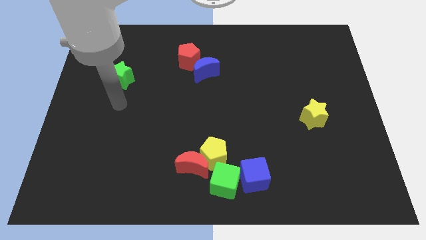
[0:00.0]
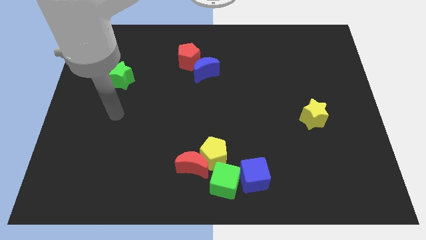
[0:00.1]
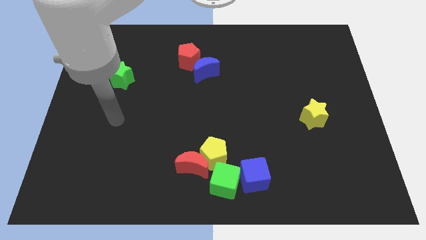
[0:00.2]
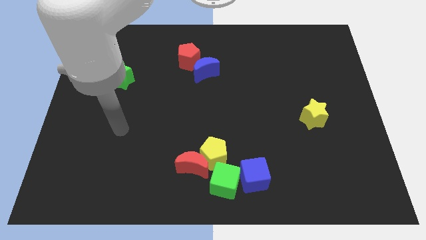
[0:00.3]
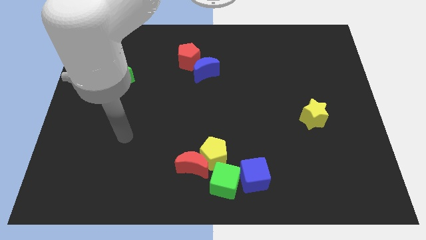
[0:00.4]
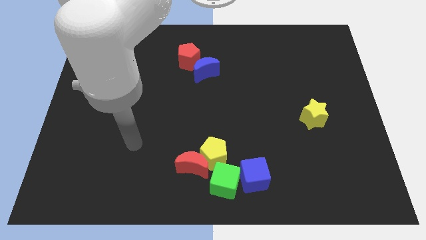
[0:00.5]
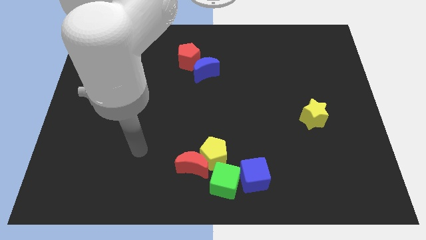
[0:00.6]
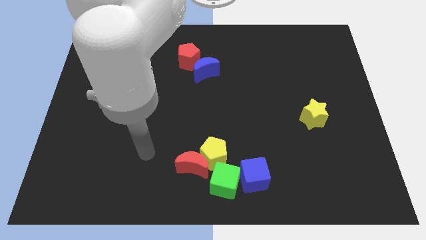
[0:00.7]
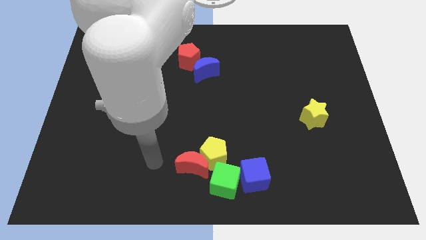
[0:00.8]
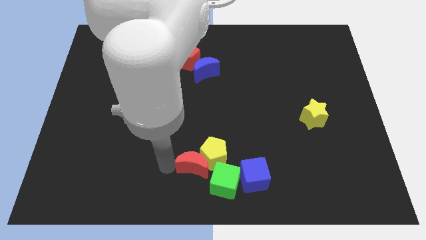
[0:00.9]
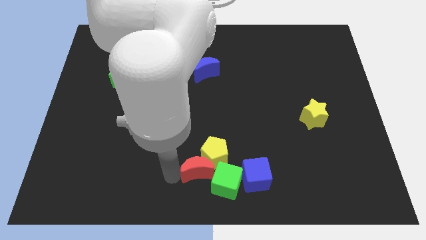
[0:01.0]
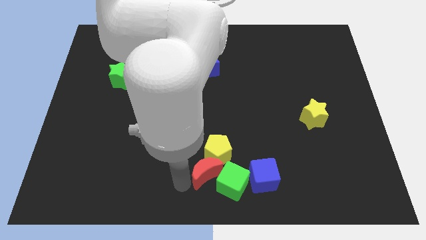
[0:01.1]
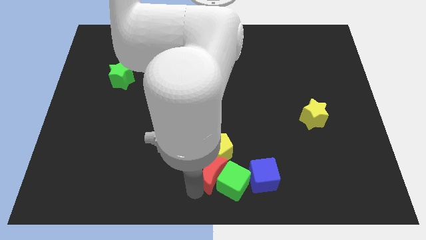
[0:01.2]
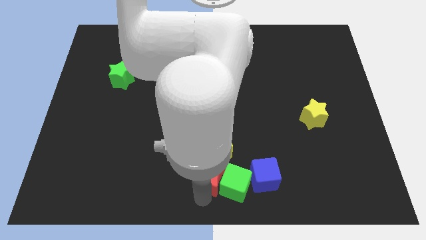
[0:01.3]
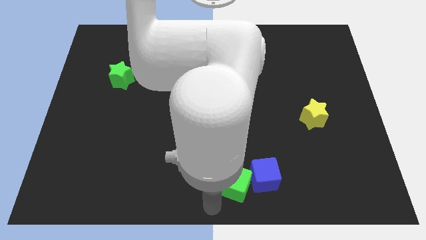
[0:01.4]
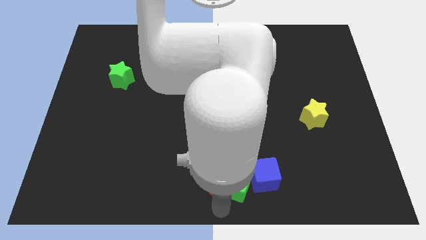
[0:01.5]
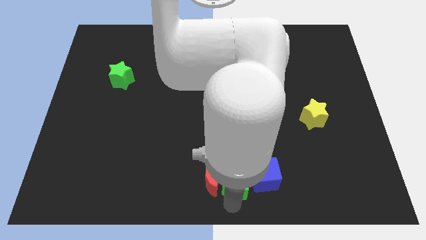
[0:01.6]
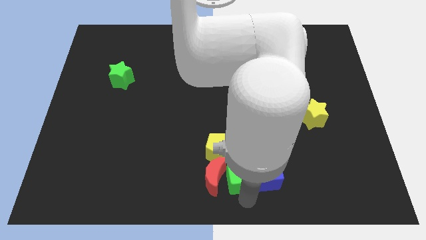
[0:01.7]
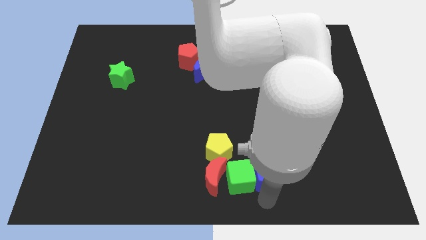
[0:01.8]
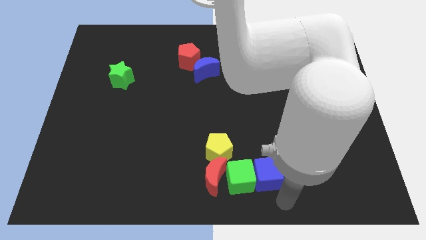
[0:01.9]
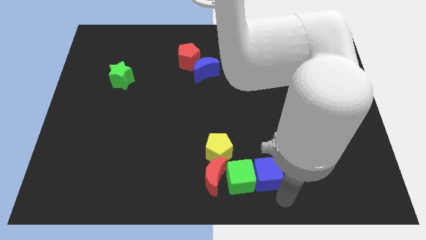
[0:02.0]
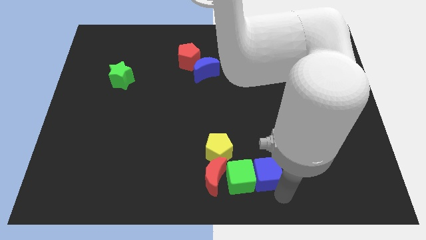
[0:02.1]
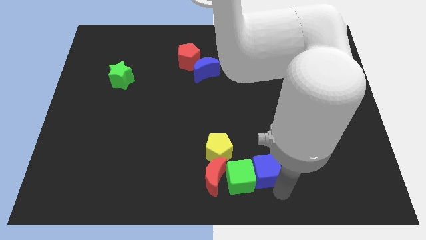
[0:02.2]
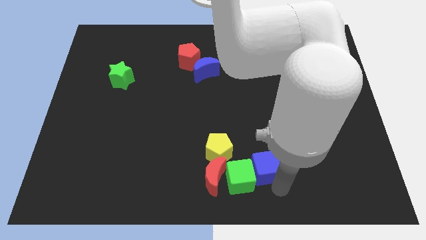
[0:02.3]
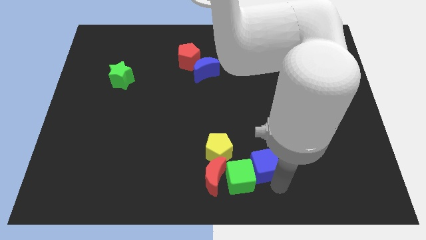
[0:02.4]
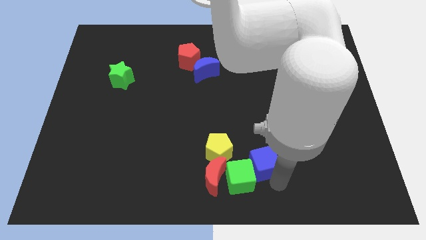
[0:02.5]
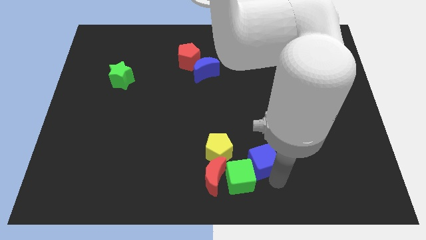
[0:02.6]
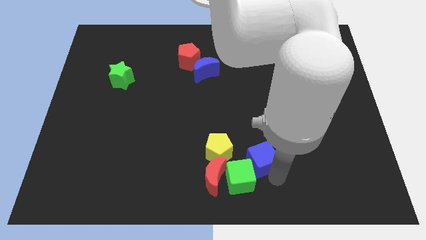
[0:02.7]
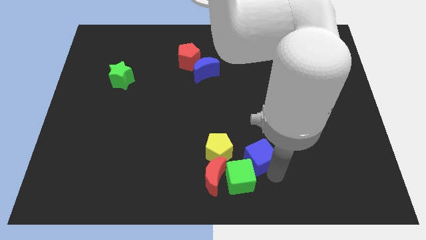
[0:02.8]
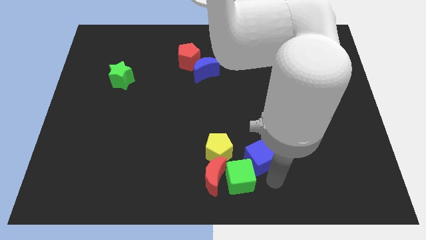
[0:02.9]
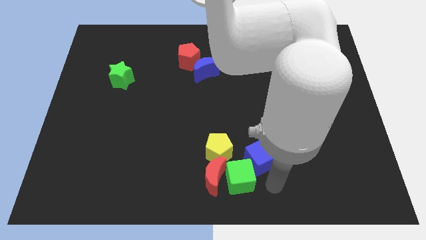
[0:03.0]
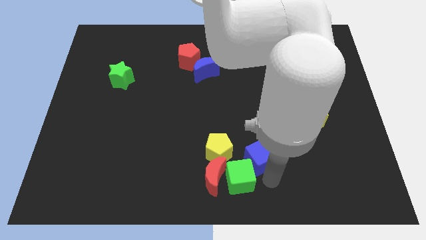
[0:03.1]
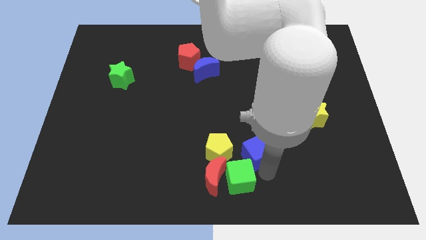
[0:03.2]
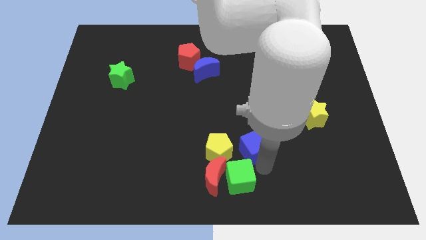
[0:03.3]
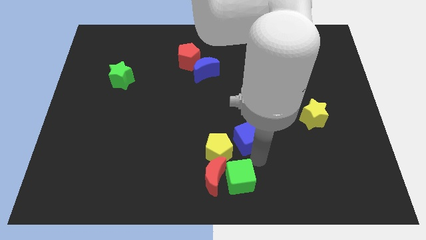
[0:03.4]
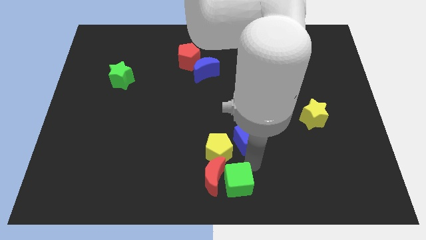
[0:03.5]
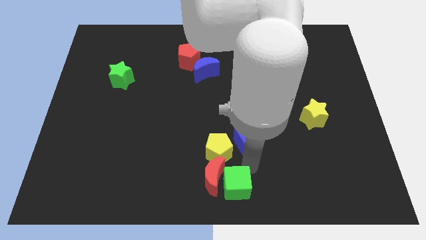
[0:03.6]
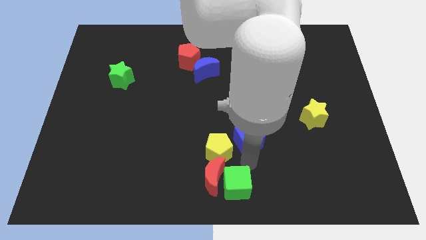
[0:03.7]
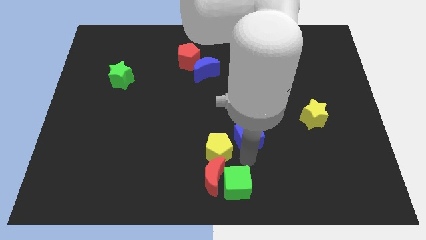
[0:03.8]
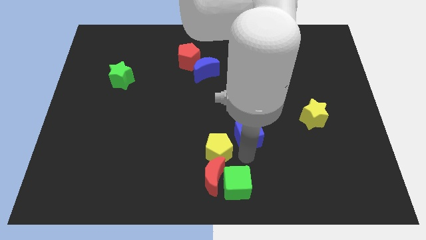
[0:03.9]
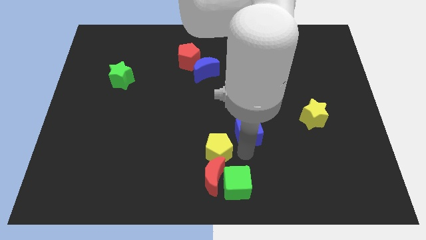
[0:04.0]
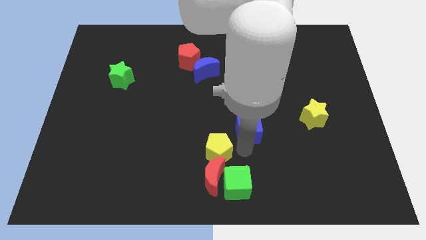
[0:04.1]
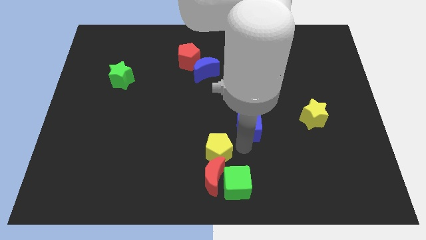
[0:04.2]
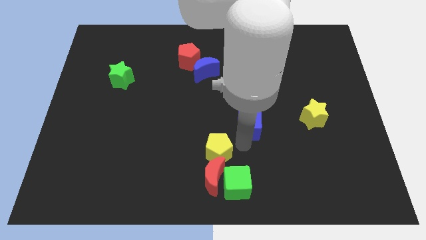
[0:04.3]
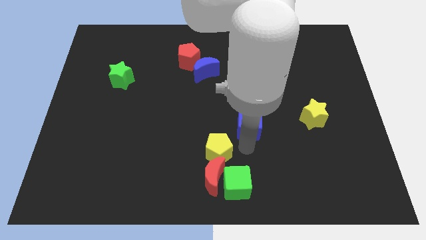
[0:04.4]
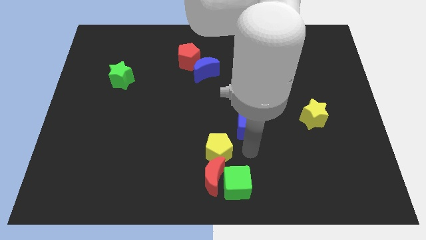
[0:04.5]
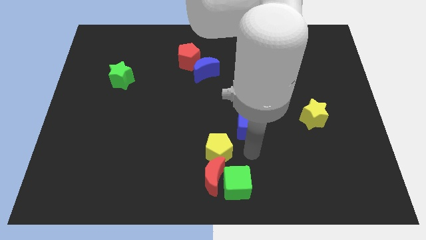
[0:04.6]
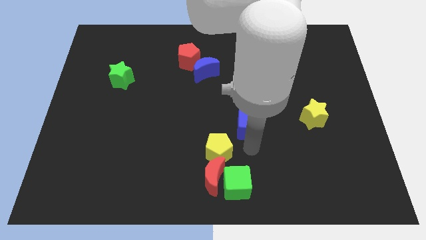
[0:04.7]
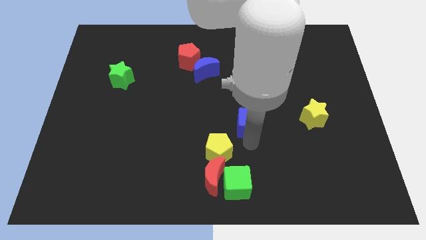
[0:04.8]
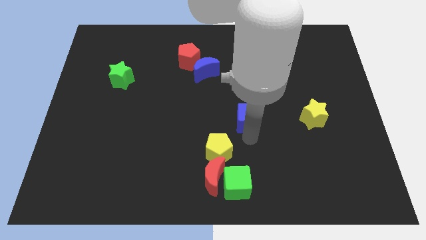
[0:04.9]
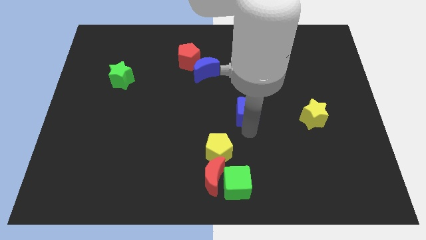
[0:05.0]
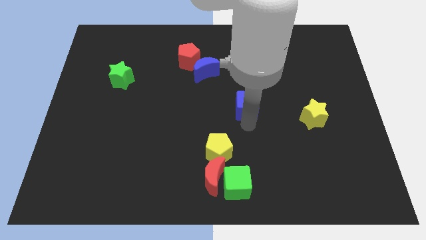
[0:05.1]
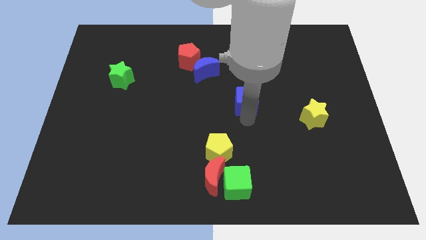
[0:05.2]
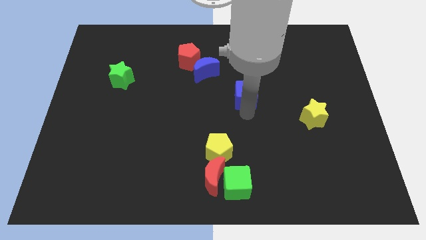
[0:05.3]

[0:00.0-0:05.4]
move the blue cube upwards

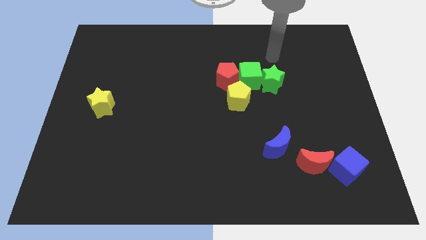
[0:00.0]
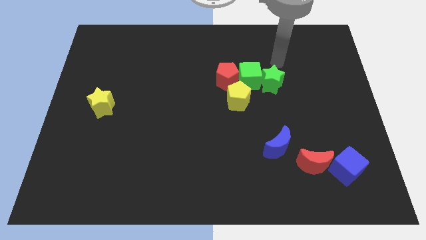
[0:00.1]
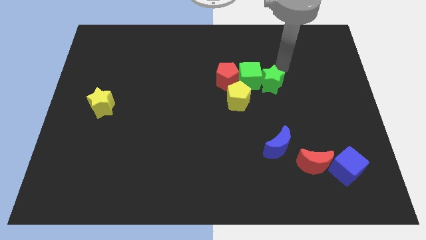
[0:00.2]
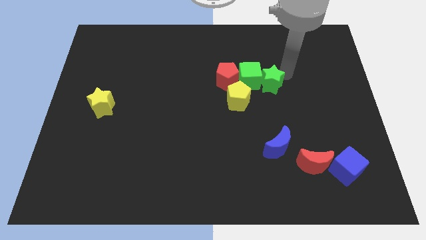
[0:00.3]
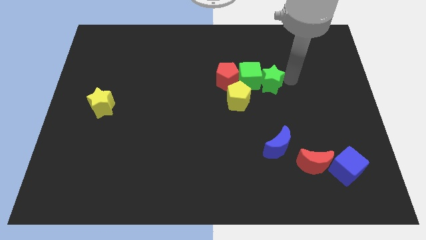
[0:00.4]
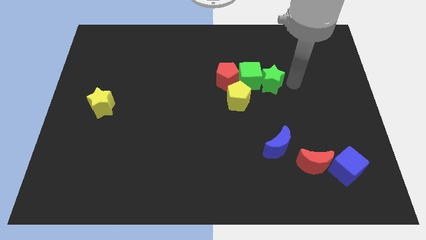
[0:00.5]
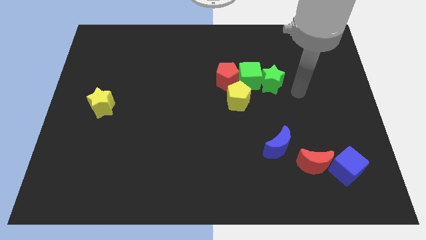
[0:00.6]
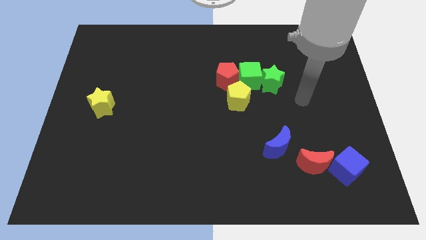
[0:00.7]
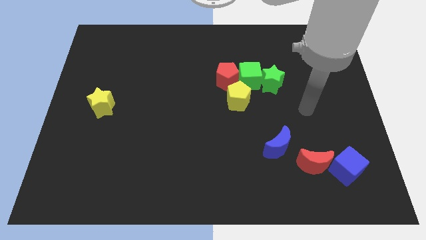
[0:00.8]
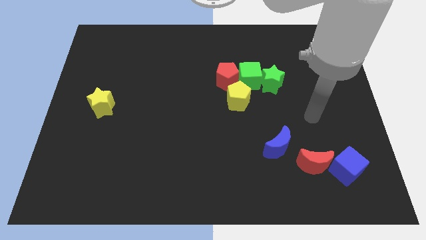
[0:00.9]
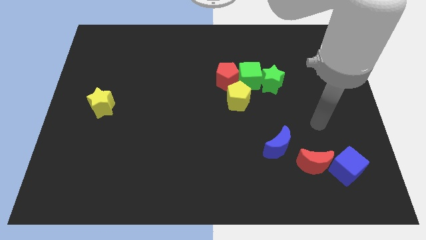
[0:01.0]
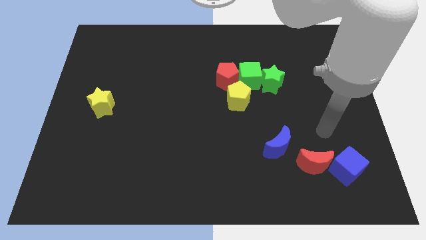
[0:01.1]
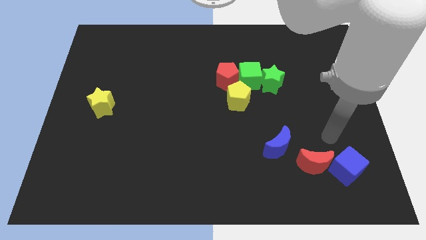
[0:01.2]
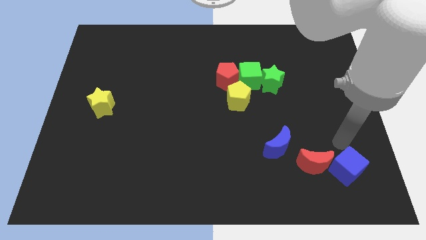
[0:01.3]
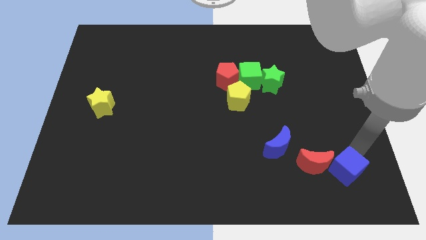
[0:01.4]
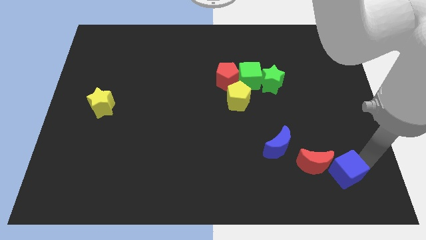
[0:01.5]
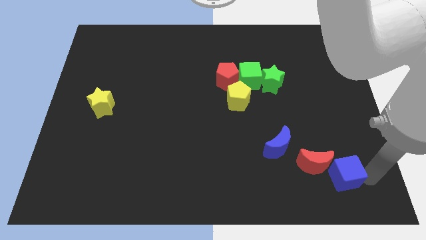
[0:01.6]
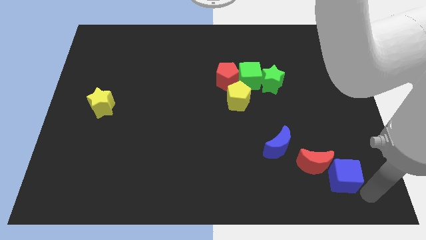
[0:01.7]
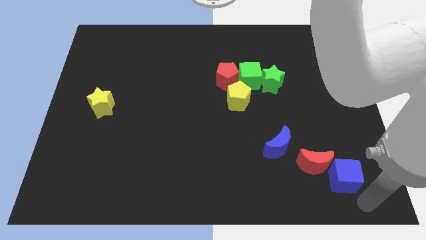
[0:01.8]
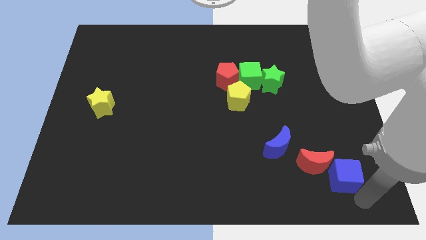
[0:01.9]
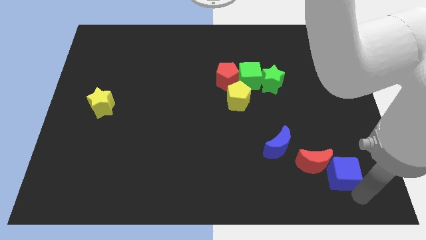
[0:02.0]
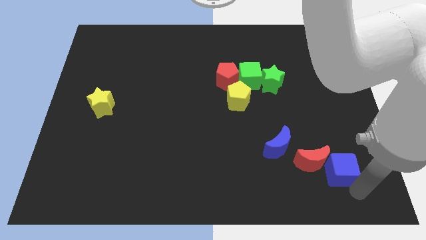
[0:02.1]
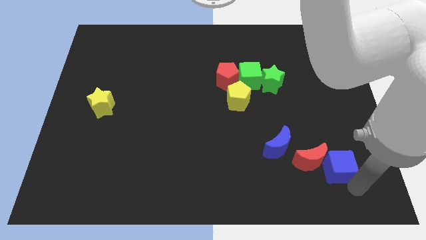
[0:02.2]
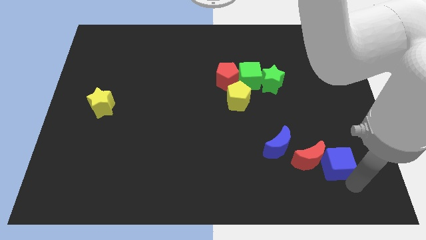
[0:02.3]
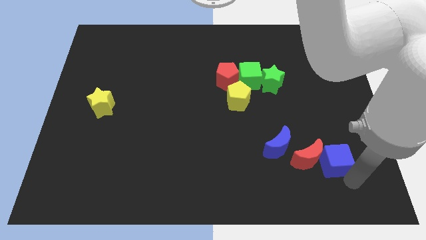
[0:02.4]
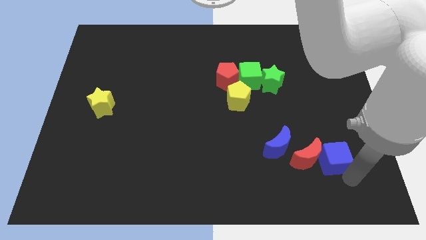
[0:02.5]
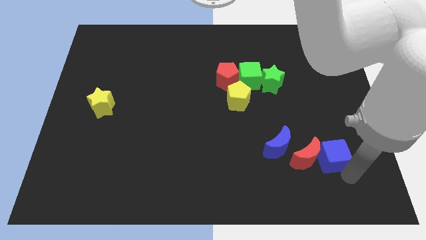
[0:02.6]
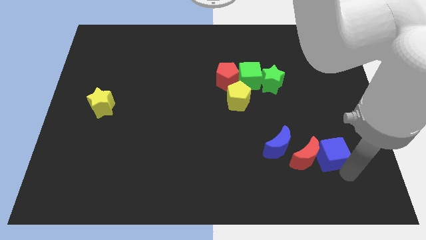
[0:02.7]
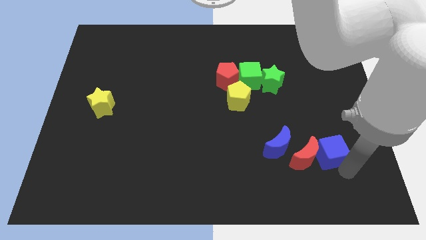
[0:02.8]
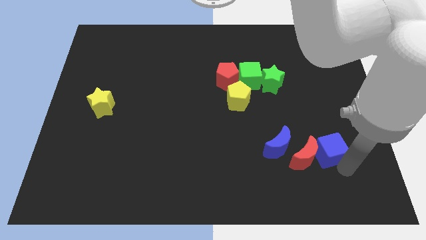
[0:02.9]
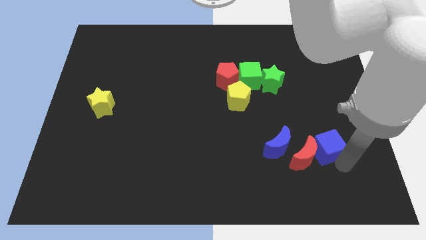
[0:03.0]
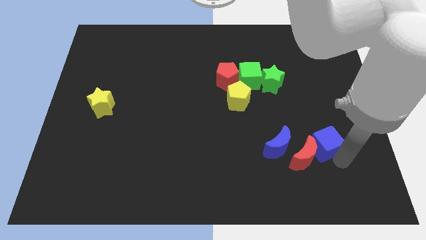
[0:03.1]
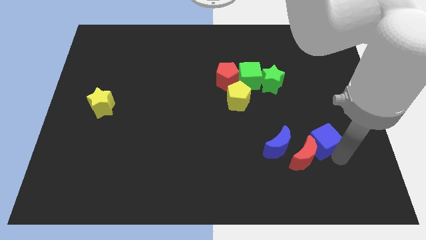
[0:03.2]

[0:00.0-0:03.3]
slightly push the blue cube up and then left
